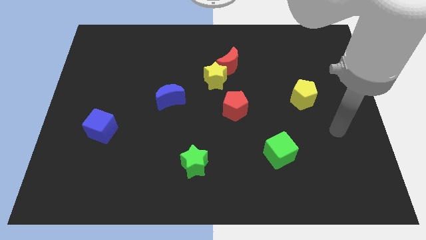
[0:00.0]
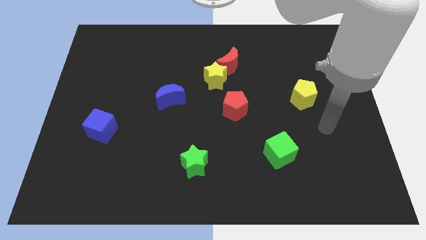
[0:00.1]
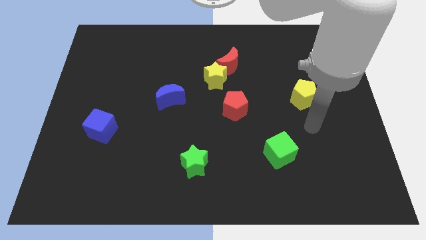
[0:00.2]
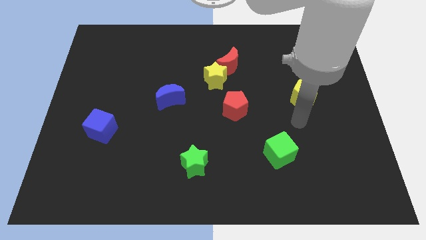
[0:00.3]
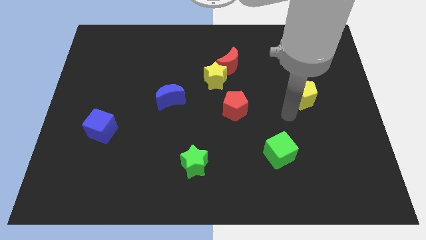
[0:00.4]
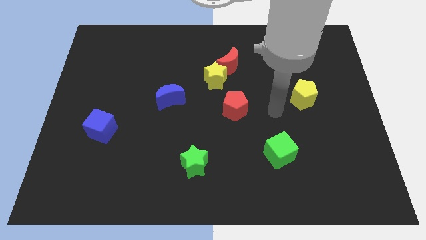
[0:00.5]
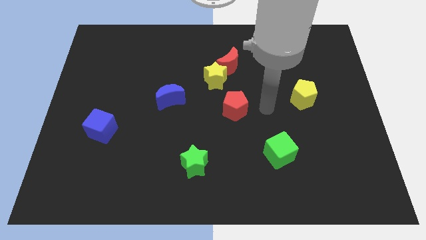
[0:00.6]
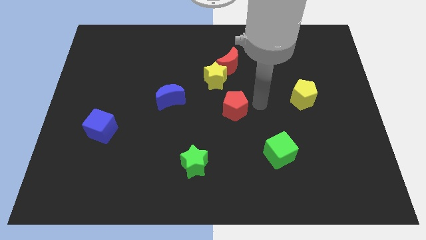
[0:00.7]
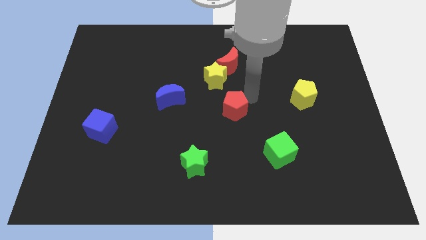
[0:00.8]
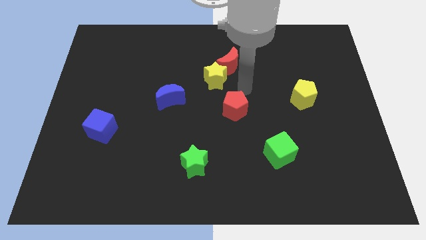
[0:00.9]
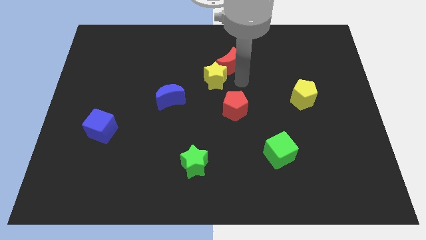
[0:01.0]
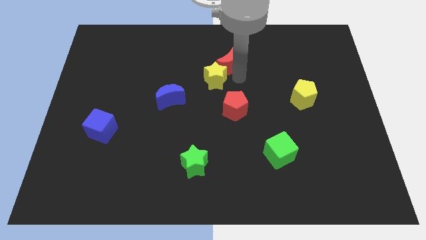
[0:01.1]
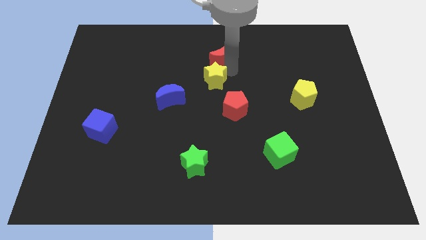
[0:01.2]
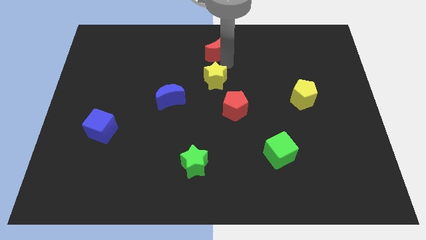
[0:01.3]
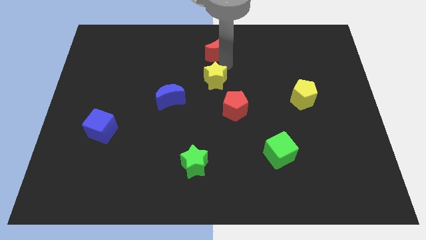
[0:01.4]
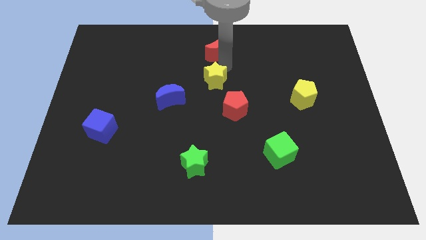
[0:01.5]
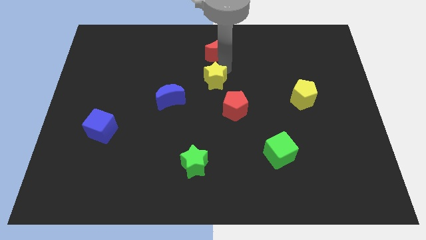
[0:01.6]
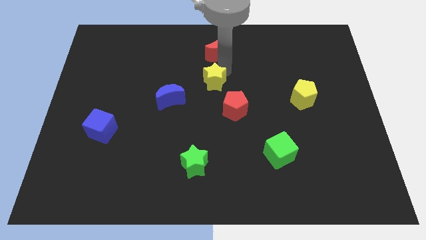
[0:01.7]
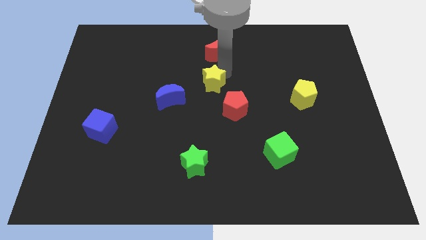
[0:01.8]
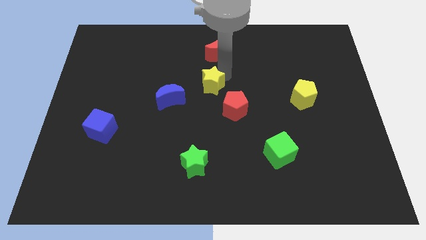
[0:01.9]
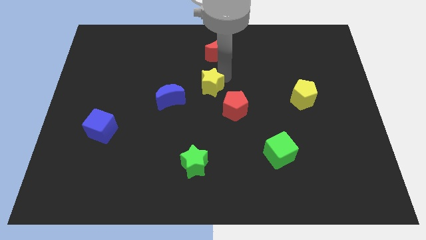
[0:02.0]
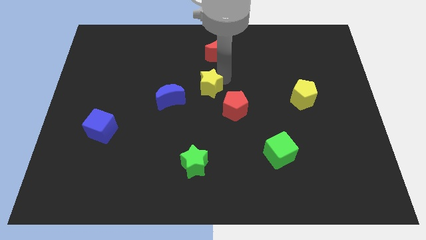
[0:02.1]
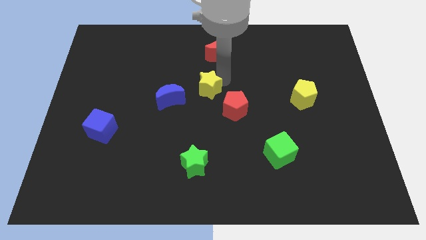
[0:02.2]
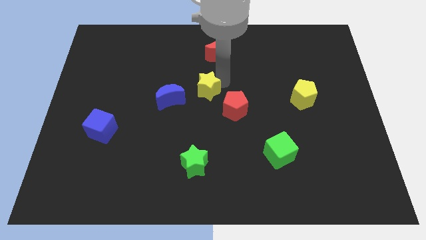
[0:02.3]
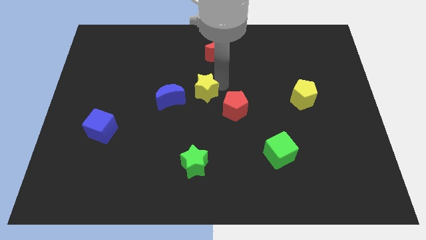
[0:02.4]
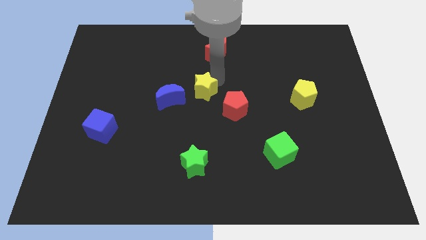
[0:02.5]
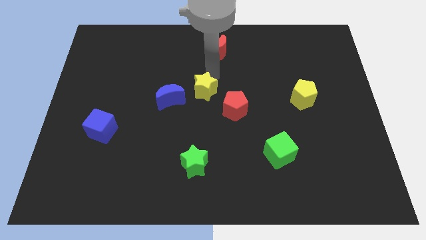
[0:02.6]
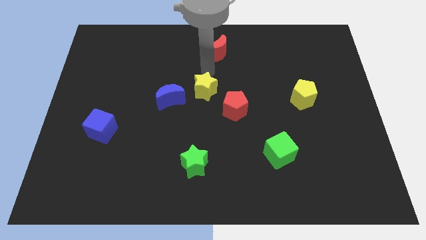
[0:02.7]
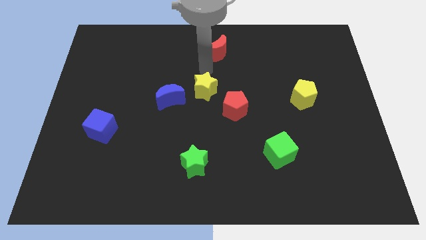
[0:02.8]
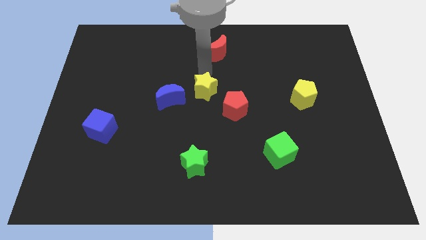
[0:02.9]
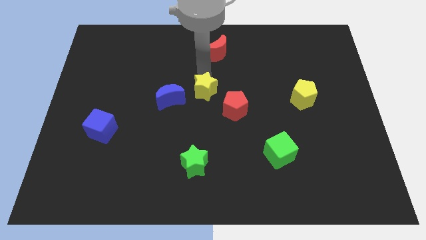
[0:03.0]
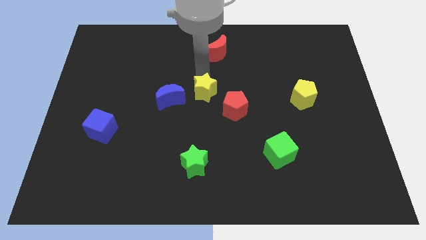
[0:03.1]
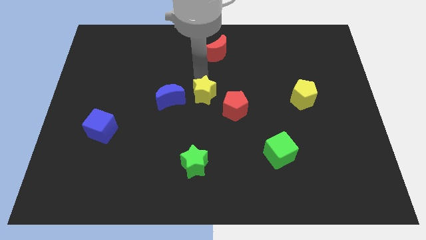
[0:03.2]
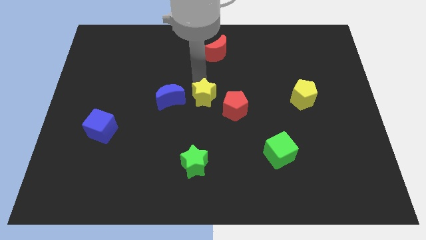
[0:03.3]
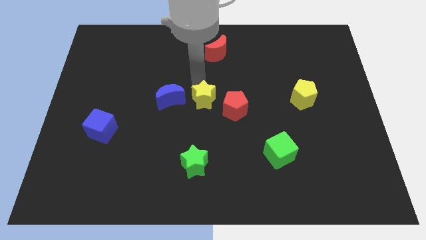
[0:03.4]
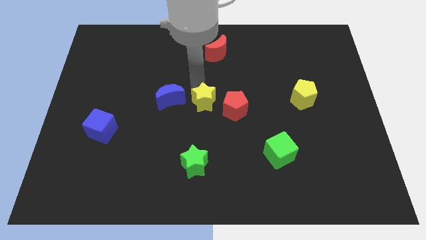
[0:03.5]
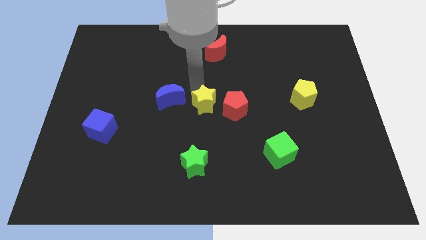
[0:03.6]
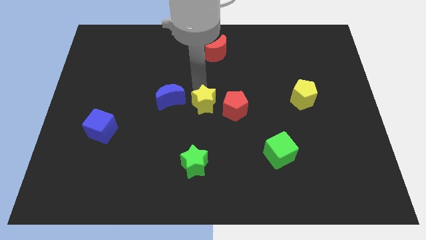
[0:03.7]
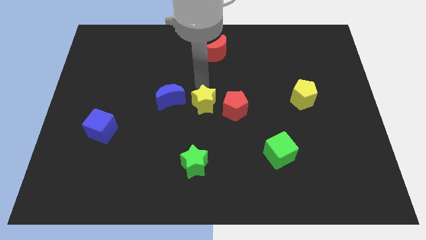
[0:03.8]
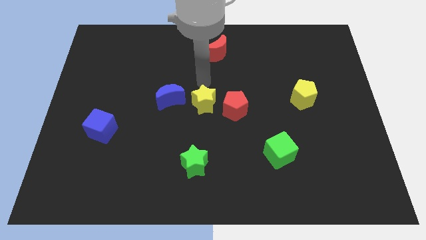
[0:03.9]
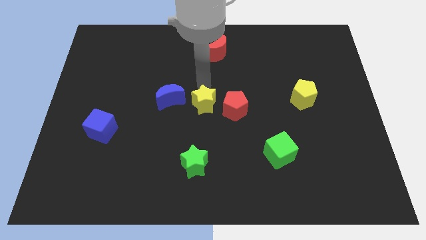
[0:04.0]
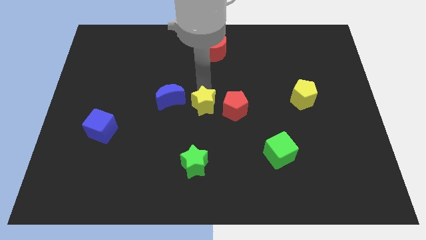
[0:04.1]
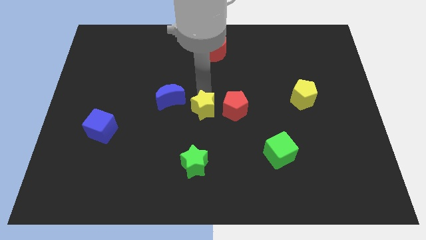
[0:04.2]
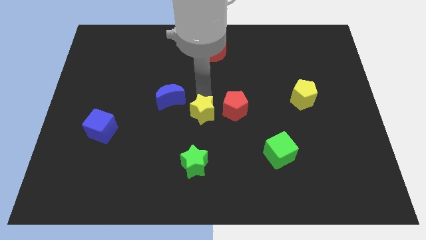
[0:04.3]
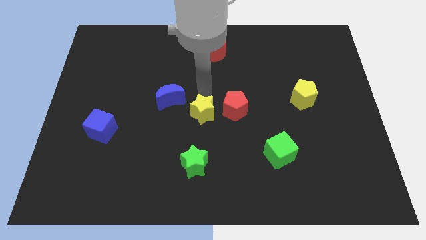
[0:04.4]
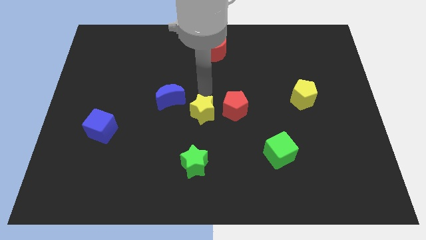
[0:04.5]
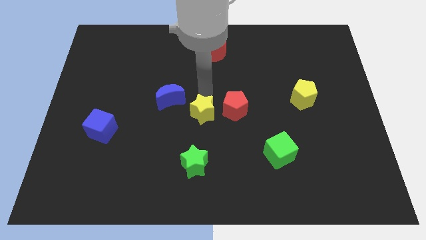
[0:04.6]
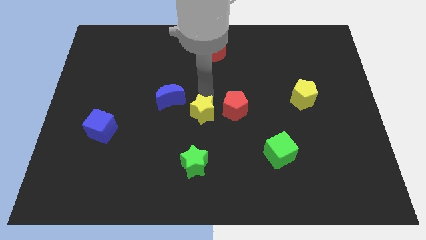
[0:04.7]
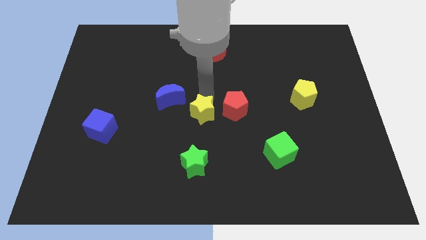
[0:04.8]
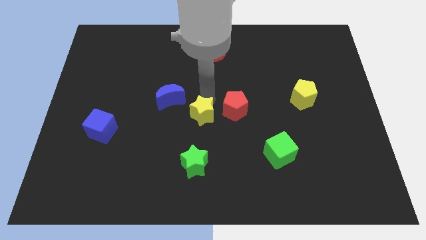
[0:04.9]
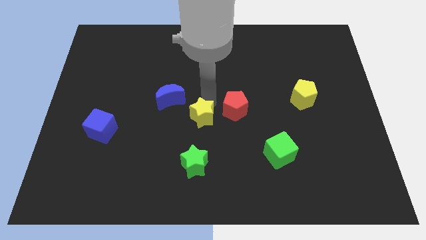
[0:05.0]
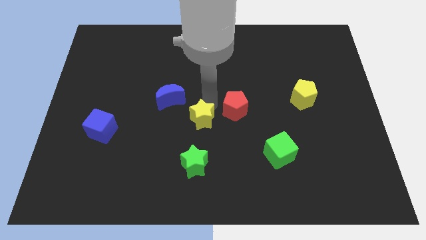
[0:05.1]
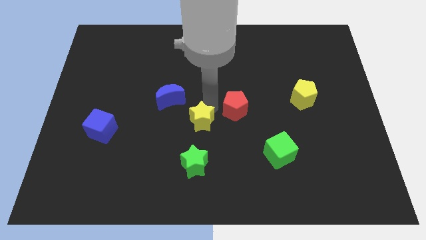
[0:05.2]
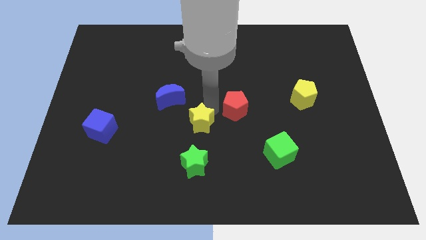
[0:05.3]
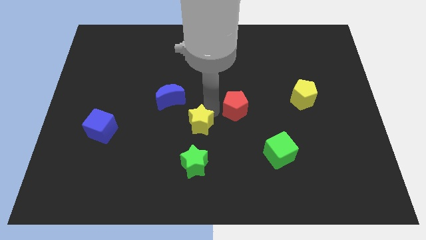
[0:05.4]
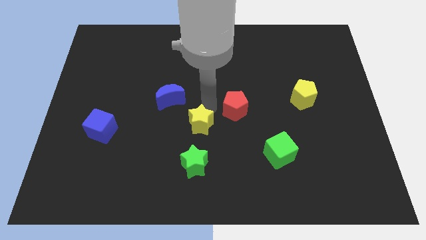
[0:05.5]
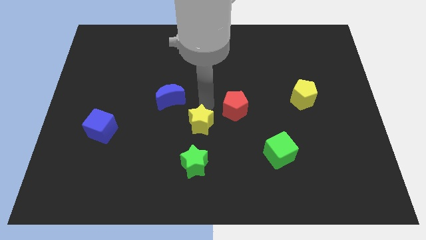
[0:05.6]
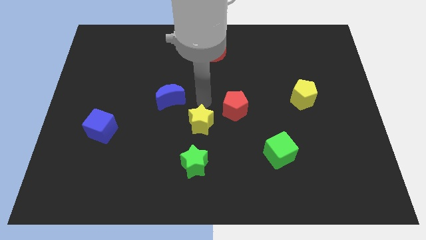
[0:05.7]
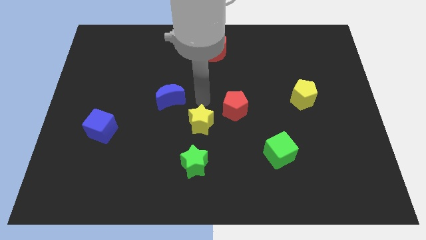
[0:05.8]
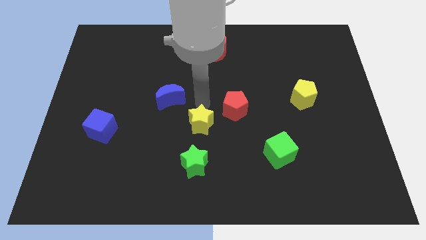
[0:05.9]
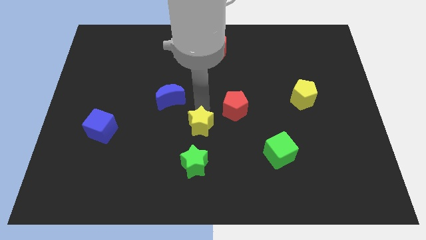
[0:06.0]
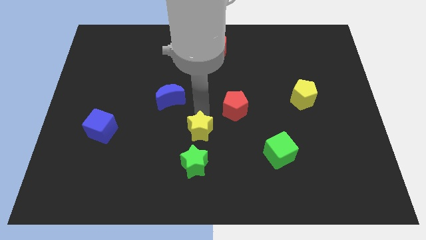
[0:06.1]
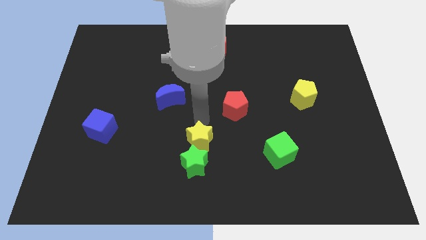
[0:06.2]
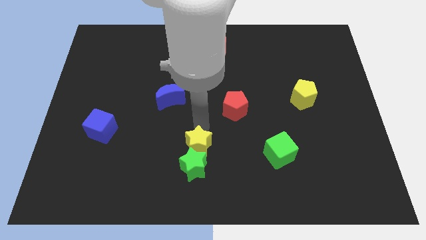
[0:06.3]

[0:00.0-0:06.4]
push the yellow star towards the green star

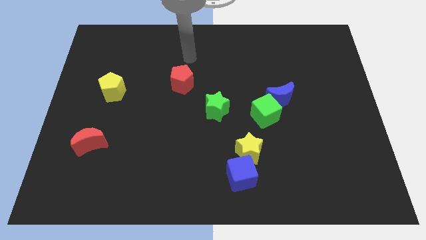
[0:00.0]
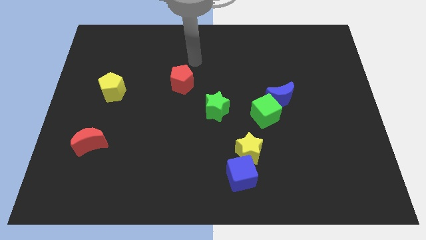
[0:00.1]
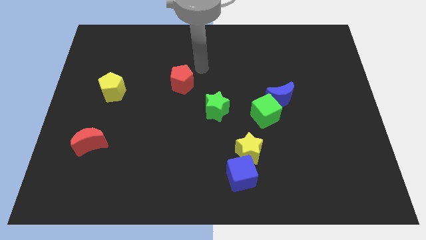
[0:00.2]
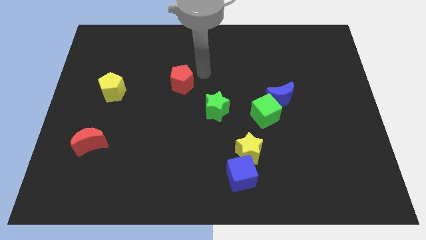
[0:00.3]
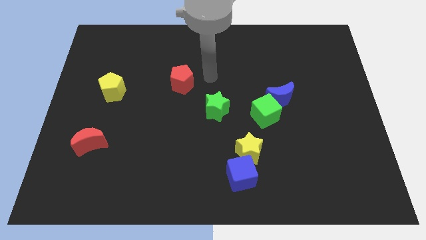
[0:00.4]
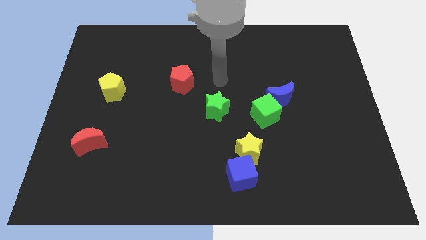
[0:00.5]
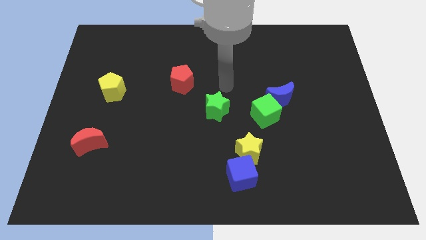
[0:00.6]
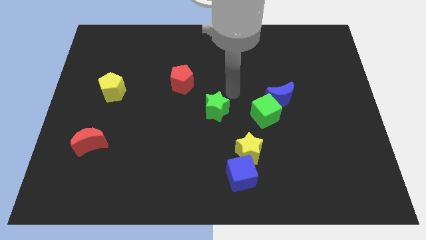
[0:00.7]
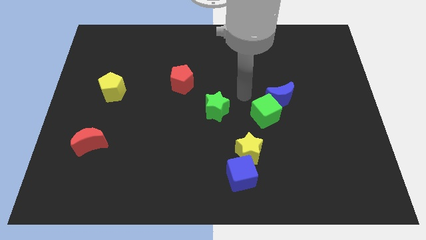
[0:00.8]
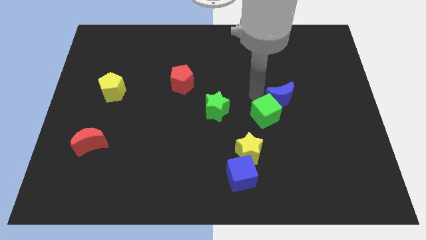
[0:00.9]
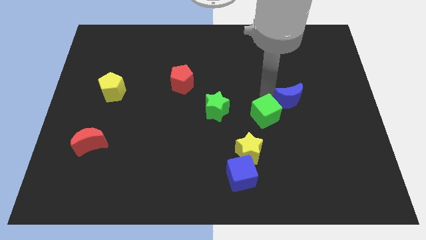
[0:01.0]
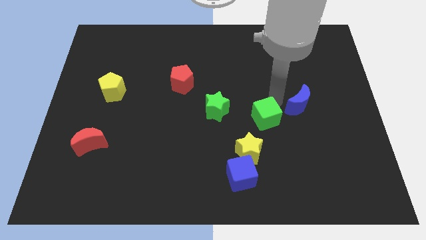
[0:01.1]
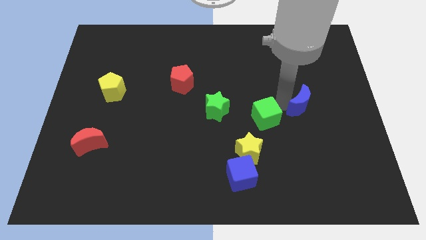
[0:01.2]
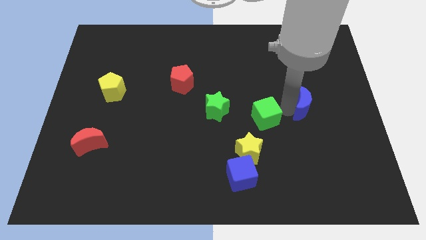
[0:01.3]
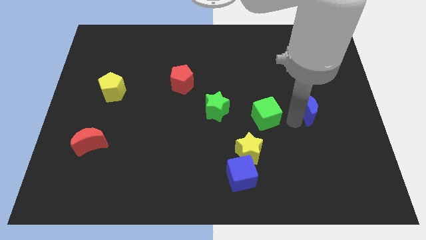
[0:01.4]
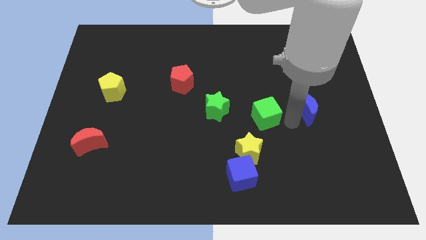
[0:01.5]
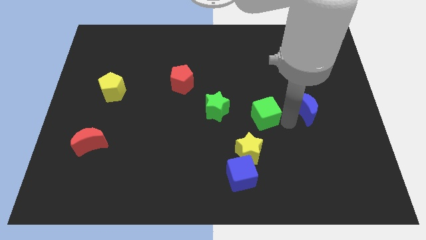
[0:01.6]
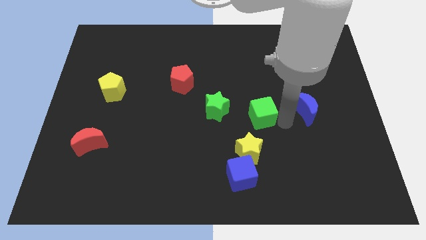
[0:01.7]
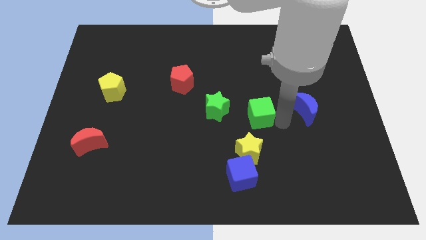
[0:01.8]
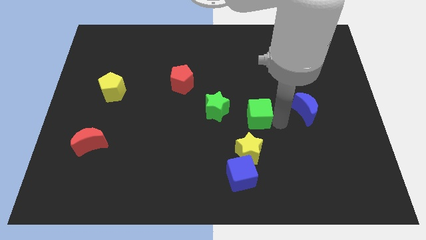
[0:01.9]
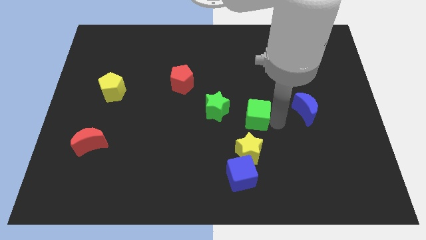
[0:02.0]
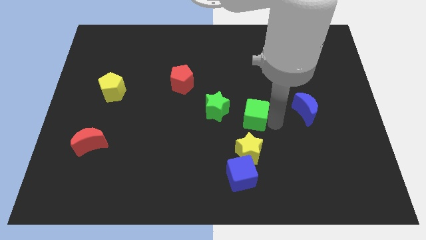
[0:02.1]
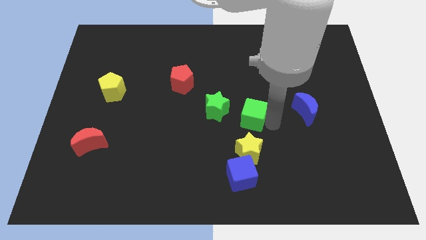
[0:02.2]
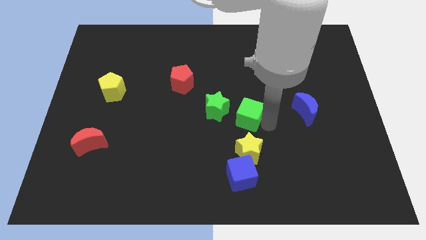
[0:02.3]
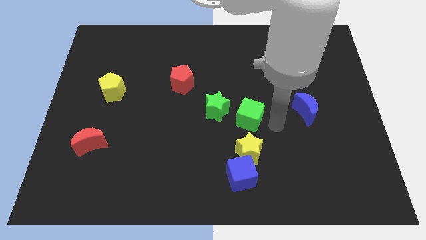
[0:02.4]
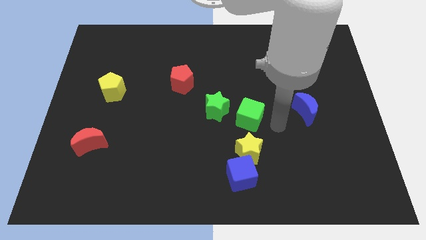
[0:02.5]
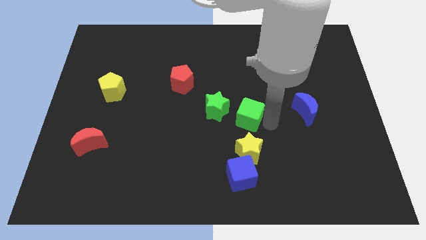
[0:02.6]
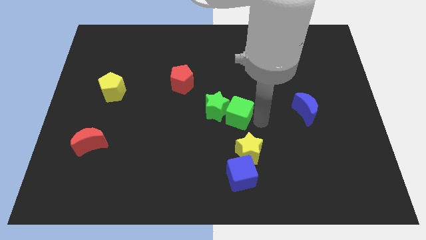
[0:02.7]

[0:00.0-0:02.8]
put the green cube next to the green star
